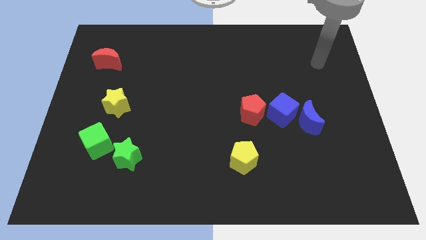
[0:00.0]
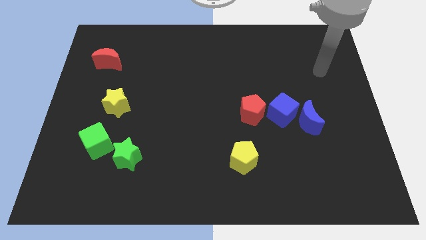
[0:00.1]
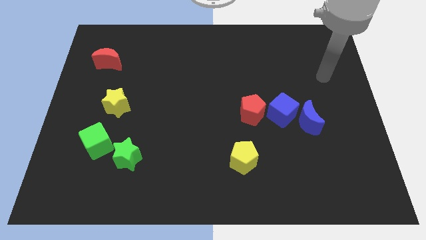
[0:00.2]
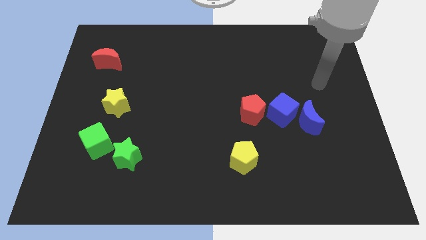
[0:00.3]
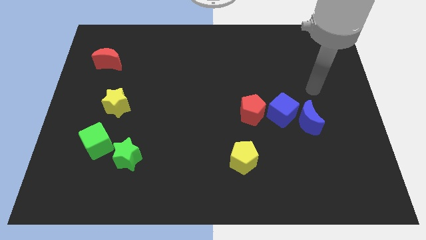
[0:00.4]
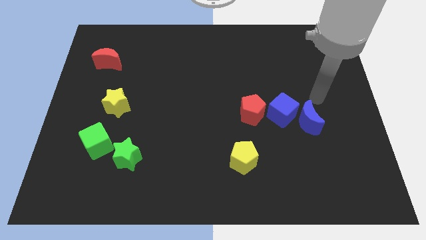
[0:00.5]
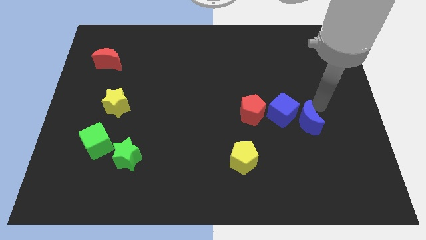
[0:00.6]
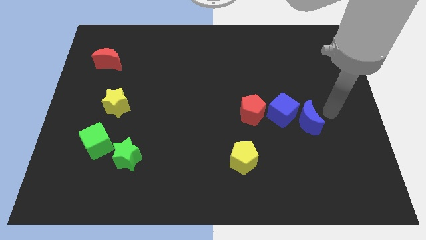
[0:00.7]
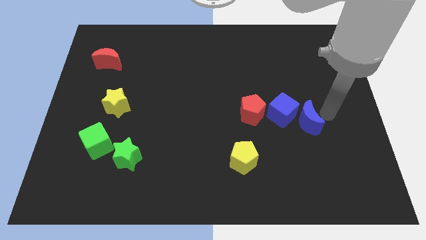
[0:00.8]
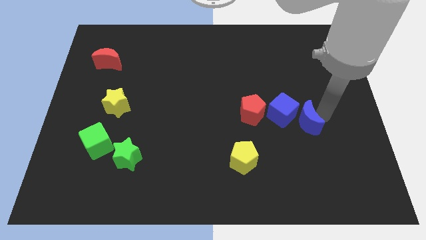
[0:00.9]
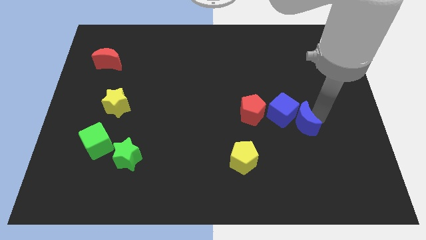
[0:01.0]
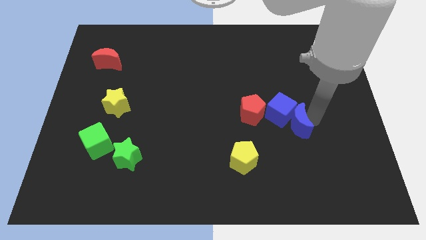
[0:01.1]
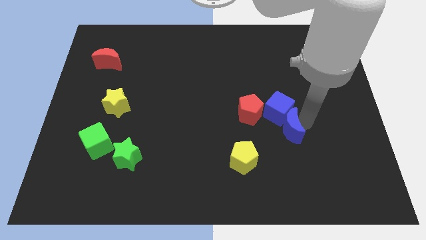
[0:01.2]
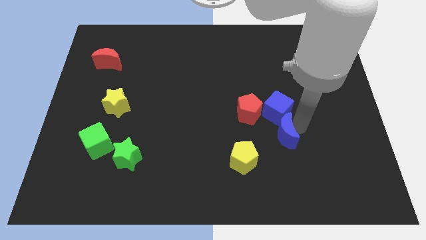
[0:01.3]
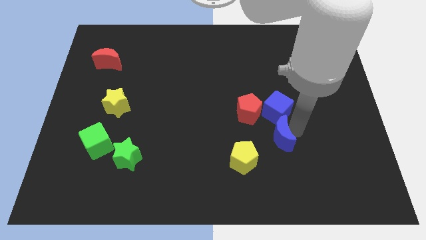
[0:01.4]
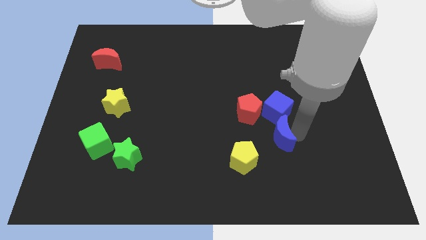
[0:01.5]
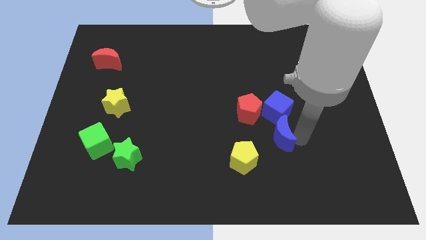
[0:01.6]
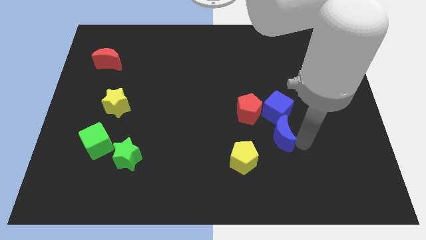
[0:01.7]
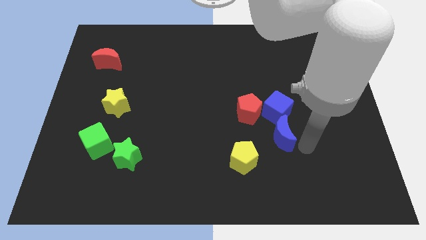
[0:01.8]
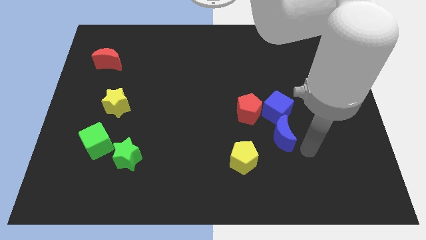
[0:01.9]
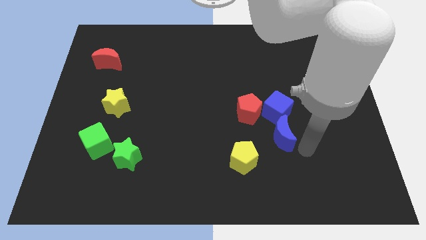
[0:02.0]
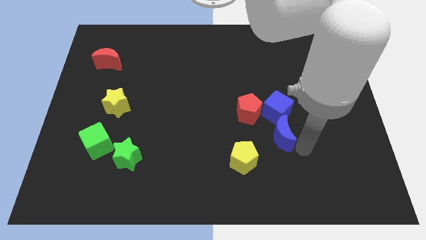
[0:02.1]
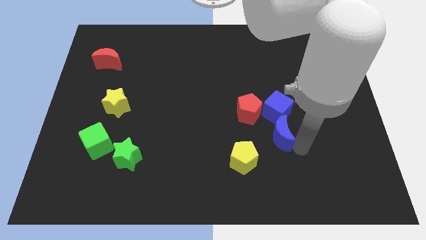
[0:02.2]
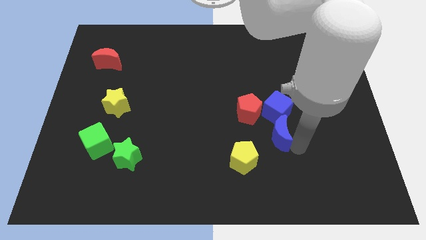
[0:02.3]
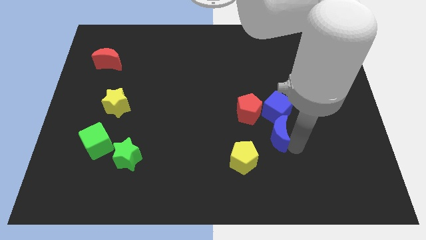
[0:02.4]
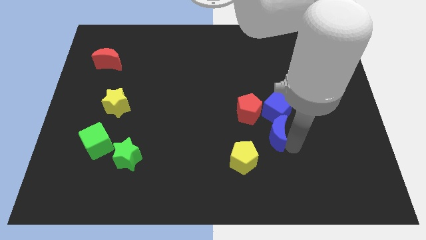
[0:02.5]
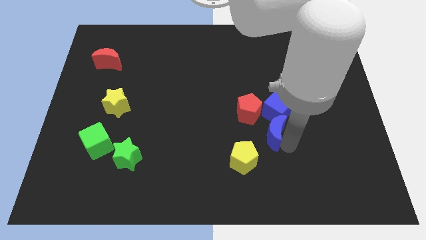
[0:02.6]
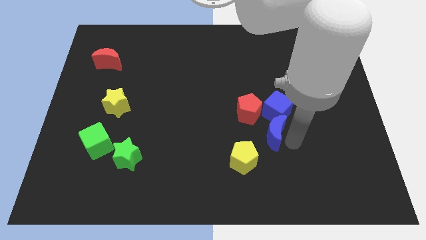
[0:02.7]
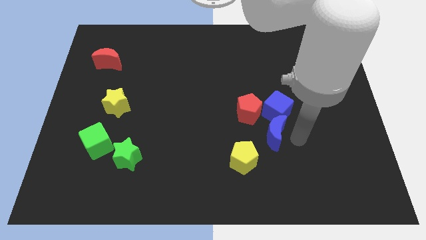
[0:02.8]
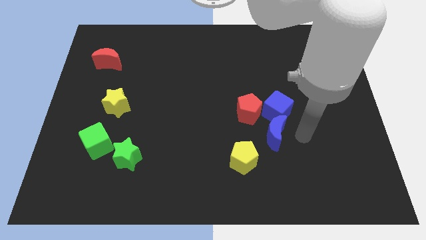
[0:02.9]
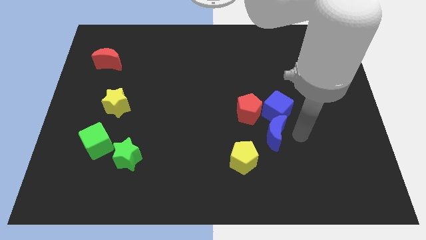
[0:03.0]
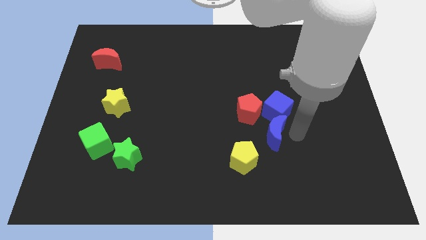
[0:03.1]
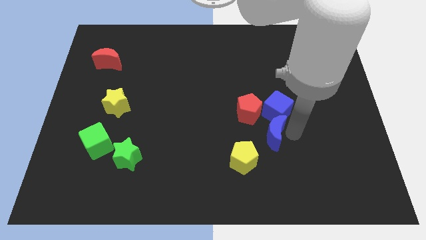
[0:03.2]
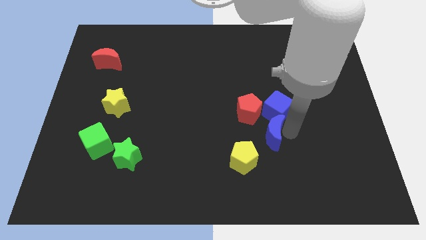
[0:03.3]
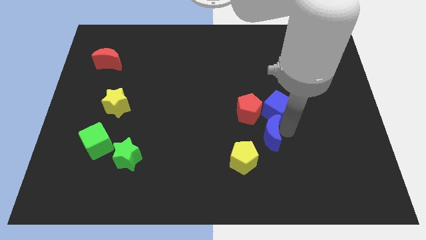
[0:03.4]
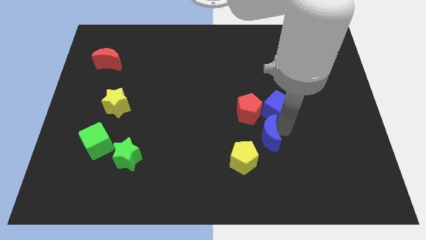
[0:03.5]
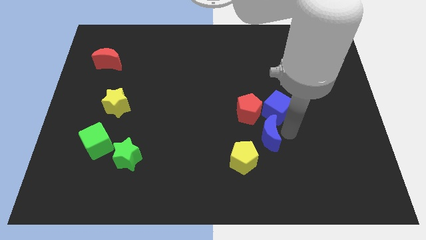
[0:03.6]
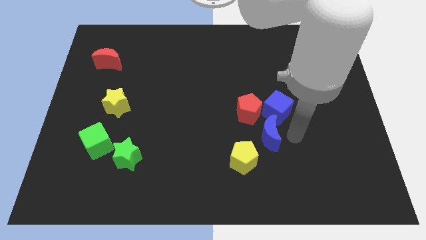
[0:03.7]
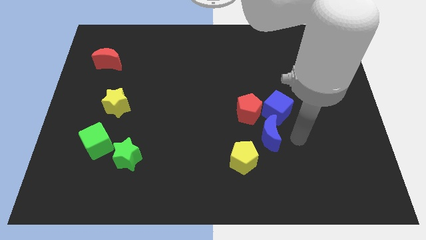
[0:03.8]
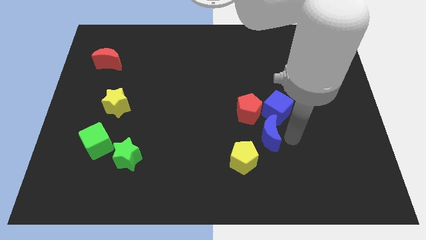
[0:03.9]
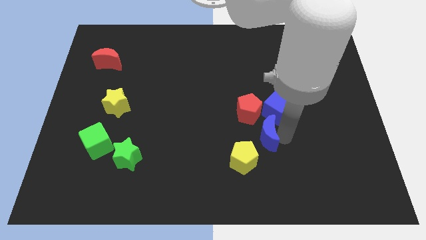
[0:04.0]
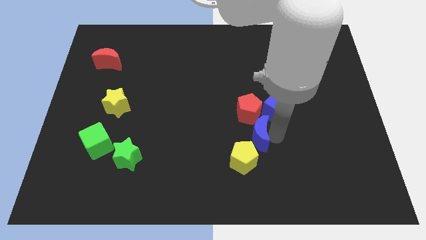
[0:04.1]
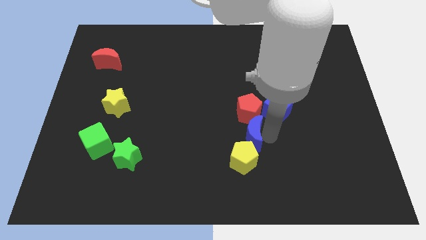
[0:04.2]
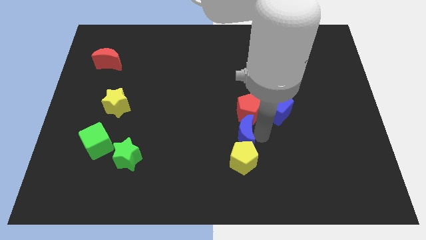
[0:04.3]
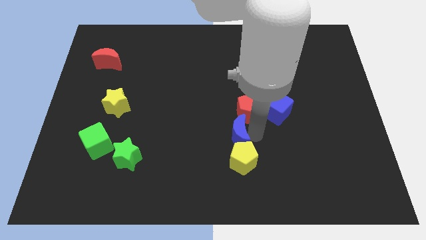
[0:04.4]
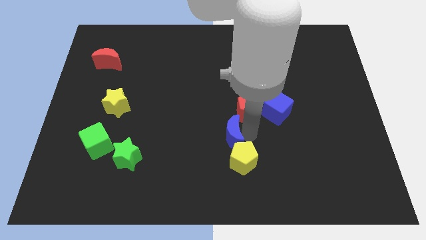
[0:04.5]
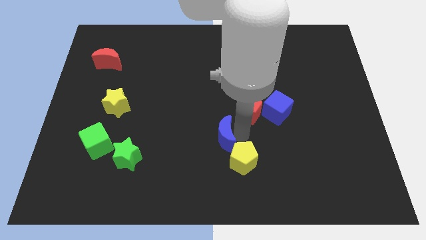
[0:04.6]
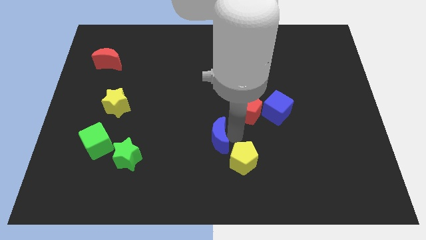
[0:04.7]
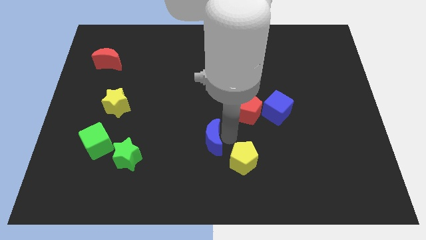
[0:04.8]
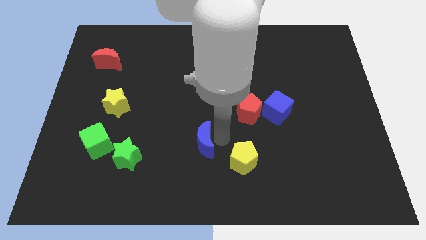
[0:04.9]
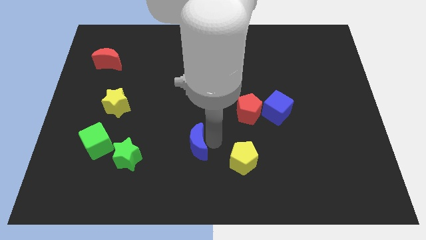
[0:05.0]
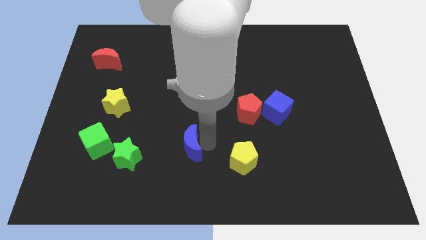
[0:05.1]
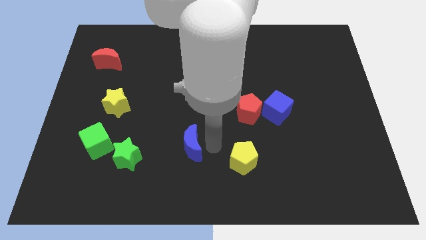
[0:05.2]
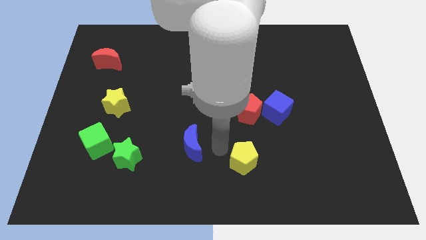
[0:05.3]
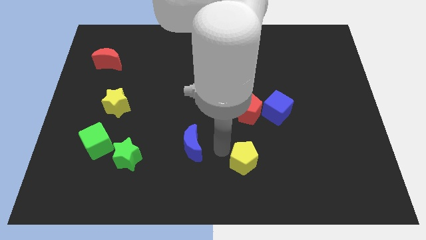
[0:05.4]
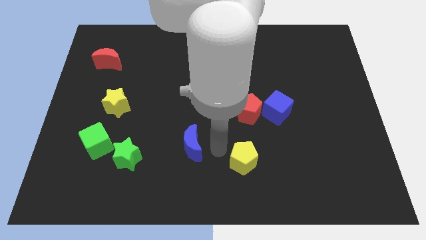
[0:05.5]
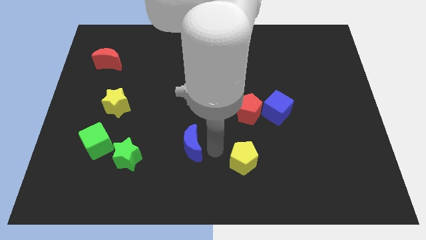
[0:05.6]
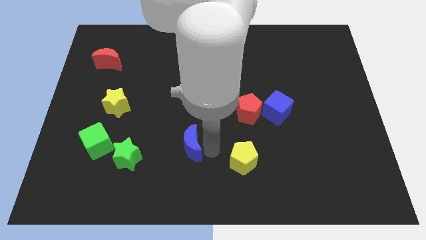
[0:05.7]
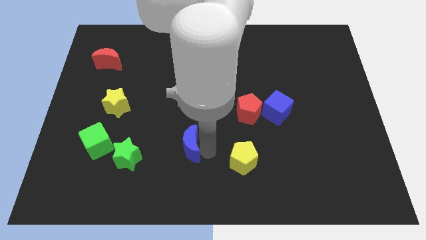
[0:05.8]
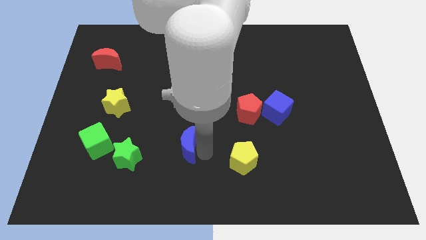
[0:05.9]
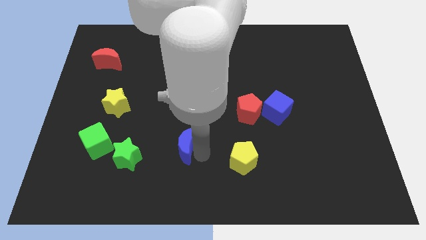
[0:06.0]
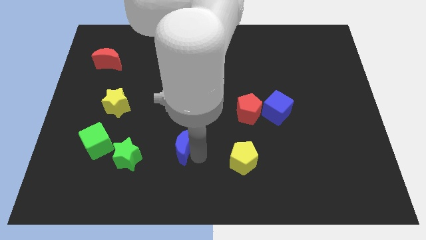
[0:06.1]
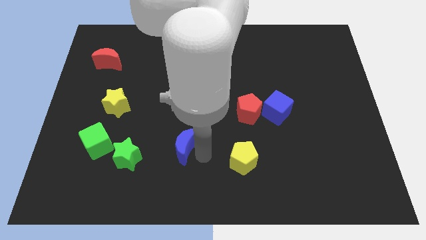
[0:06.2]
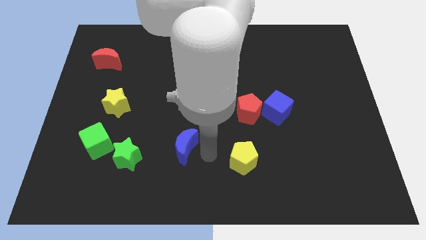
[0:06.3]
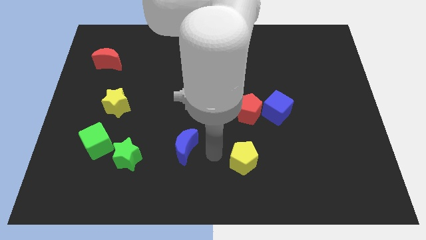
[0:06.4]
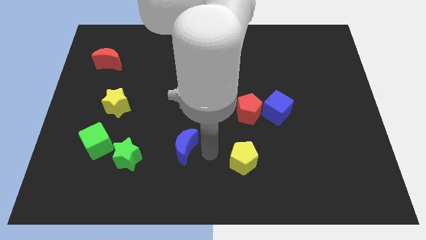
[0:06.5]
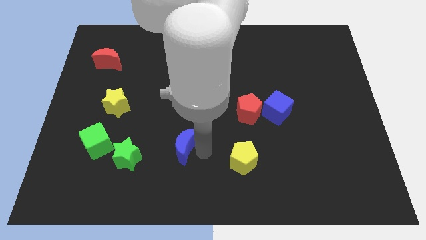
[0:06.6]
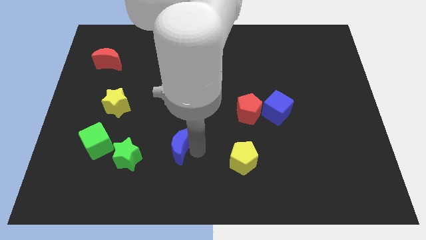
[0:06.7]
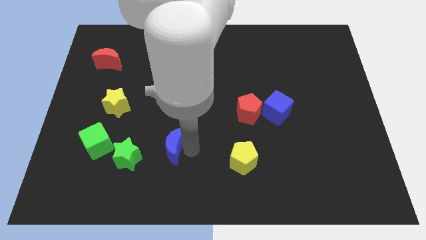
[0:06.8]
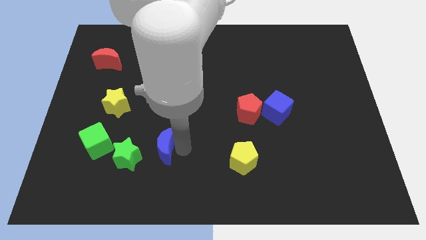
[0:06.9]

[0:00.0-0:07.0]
push the blue moon just right of the green cube
